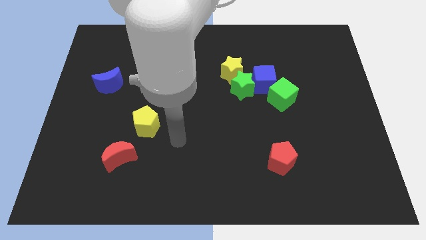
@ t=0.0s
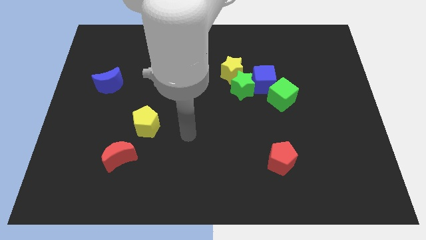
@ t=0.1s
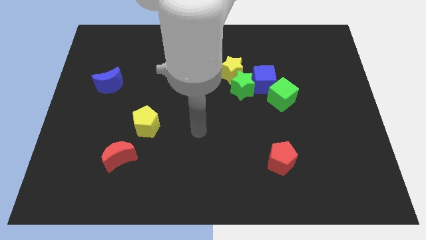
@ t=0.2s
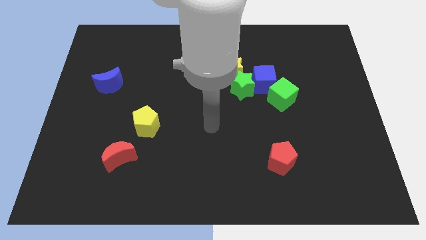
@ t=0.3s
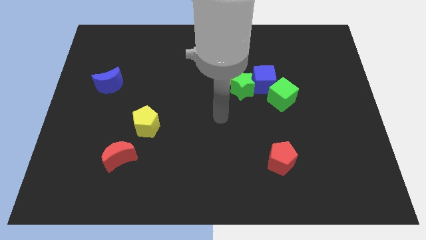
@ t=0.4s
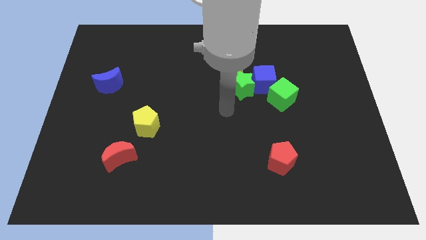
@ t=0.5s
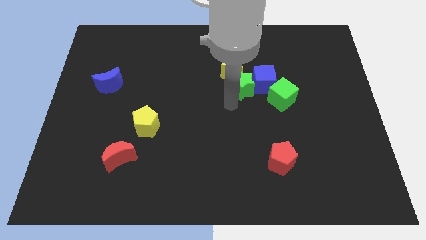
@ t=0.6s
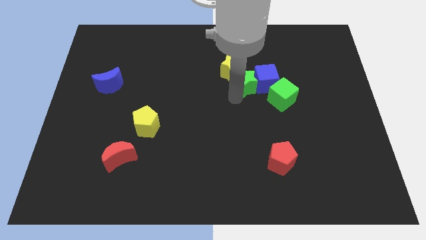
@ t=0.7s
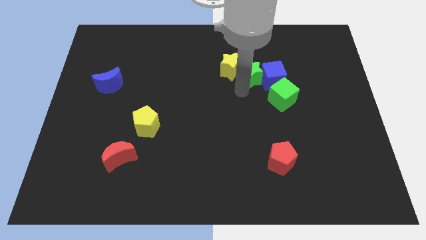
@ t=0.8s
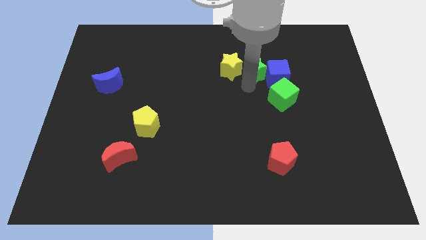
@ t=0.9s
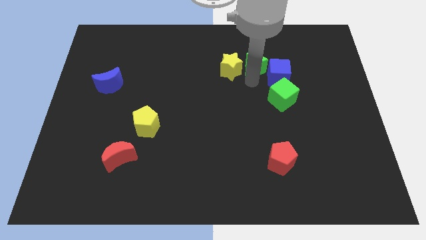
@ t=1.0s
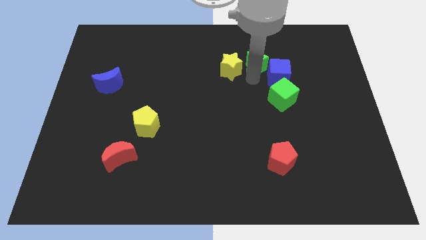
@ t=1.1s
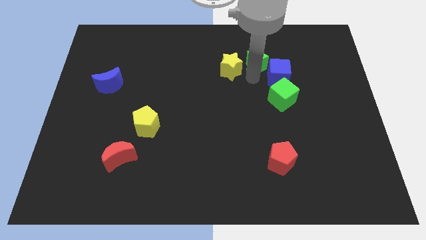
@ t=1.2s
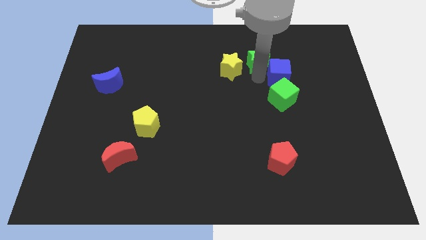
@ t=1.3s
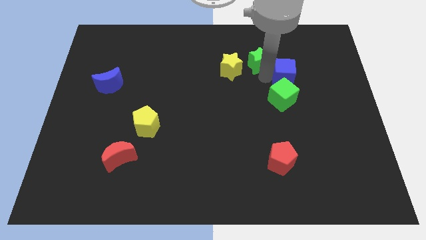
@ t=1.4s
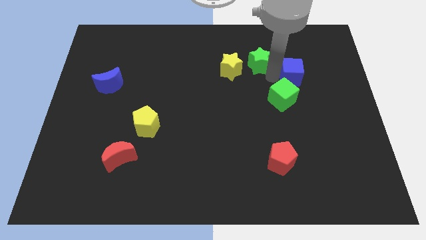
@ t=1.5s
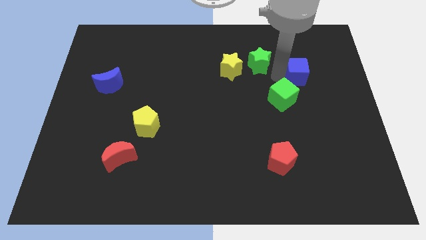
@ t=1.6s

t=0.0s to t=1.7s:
move the blue cube away from the group of blocks

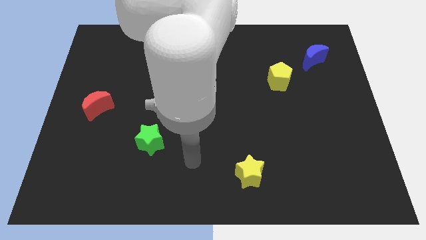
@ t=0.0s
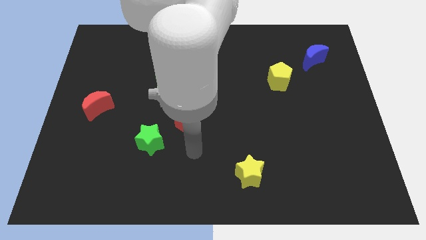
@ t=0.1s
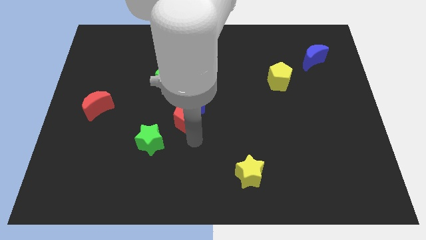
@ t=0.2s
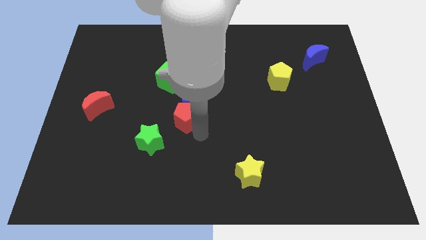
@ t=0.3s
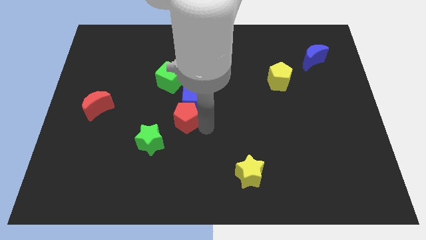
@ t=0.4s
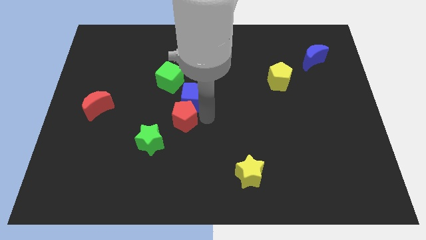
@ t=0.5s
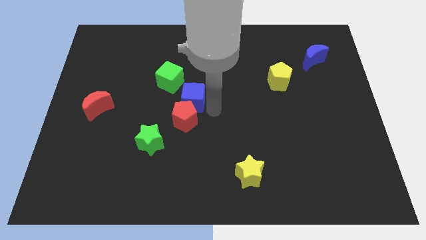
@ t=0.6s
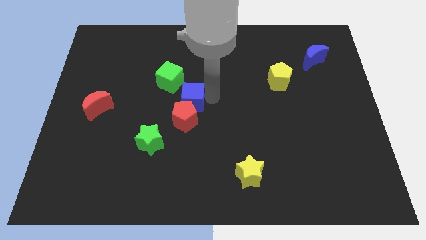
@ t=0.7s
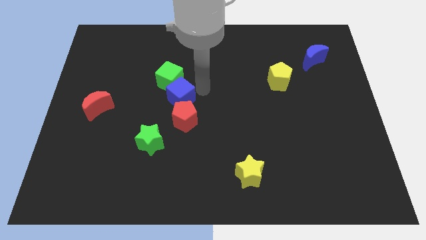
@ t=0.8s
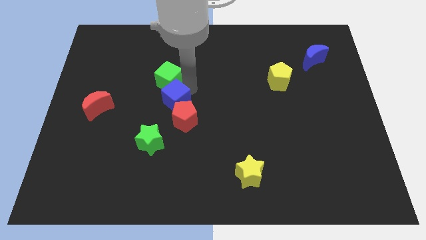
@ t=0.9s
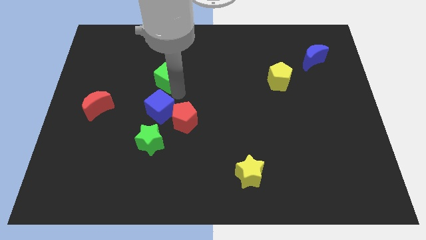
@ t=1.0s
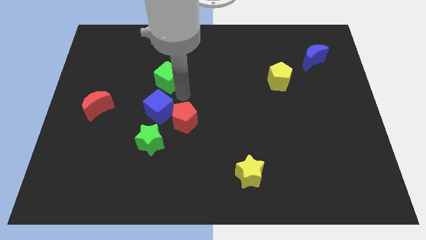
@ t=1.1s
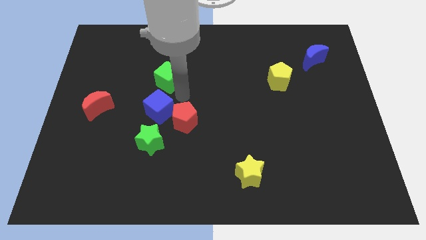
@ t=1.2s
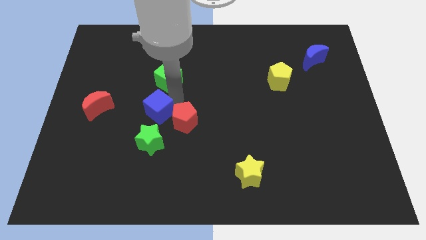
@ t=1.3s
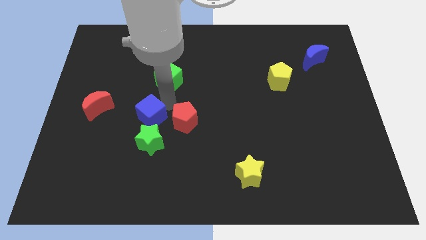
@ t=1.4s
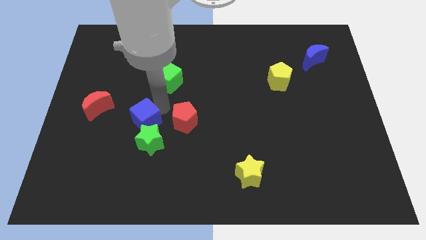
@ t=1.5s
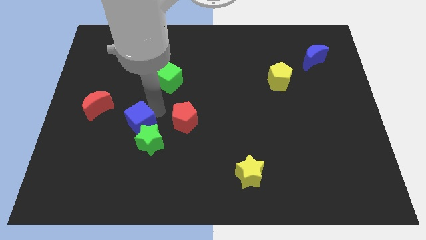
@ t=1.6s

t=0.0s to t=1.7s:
move the blue cube away from the red pentagon and green cube

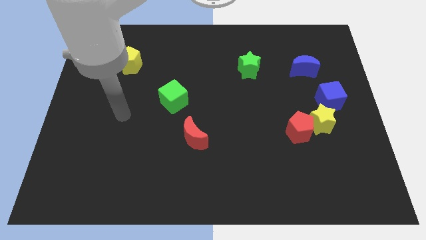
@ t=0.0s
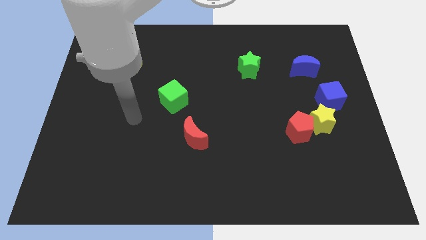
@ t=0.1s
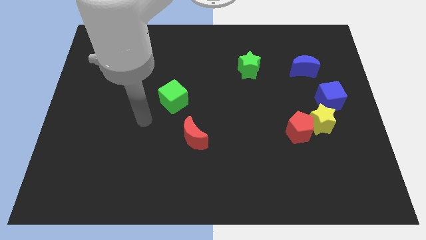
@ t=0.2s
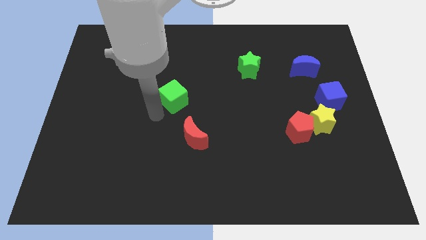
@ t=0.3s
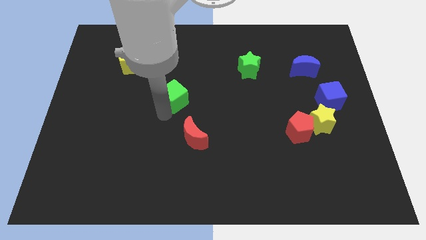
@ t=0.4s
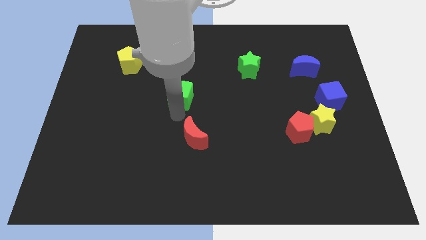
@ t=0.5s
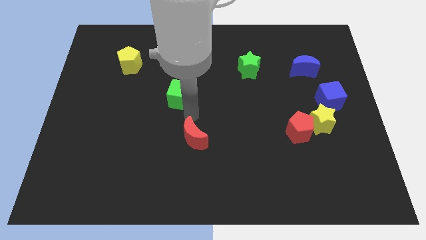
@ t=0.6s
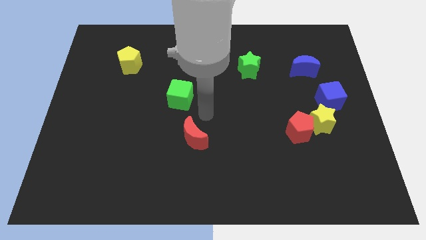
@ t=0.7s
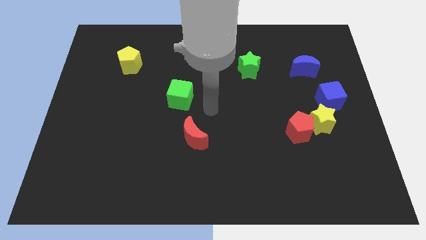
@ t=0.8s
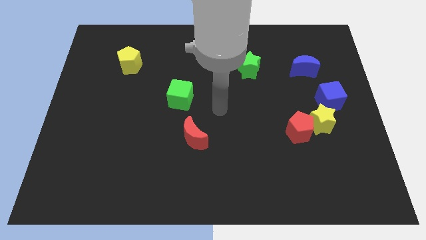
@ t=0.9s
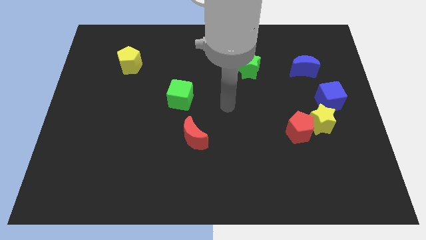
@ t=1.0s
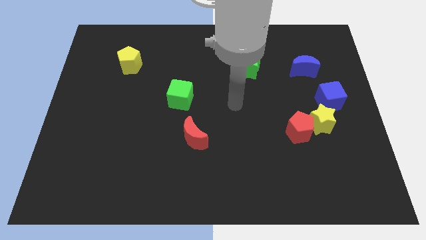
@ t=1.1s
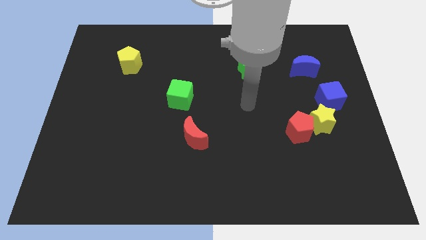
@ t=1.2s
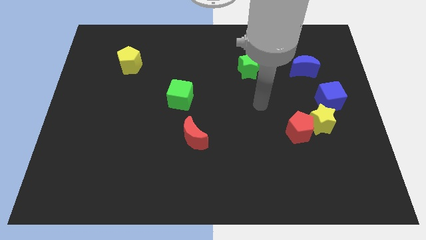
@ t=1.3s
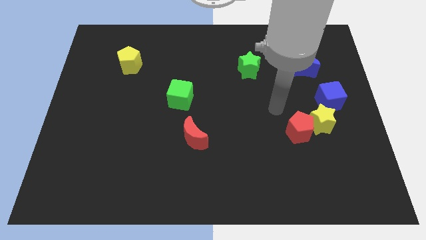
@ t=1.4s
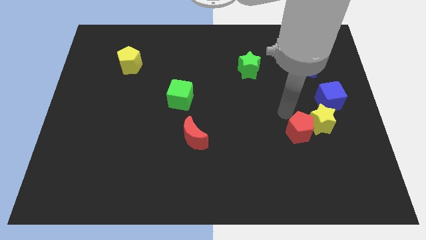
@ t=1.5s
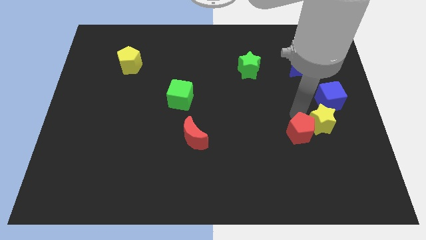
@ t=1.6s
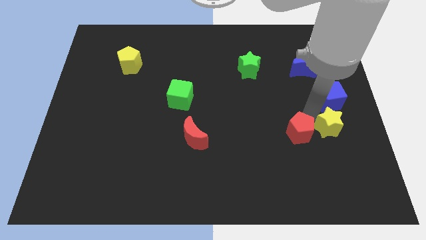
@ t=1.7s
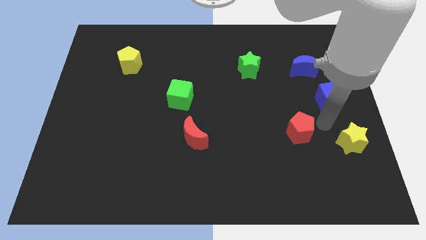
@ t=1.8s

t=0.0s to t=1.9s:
move the red pentagon away from the yellow star

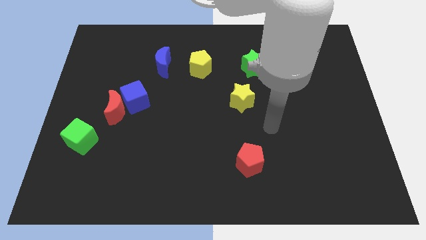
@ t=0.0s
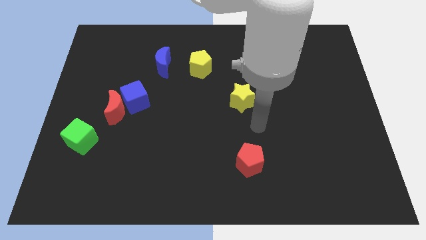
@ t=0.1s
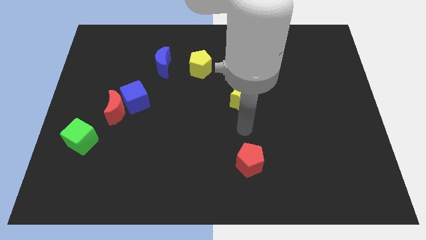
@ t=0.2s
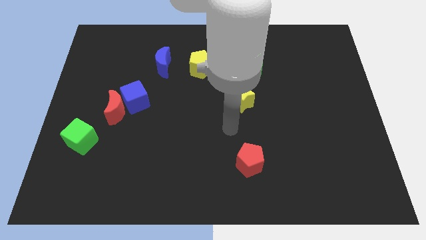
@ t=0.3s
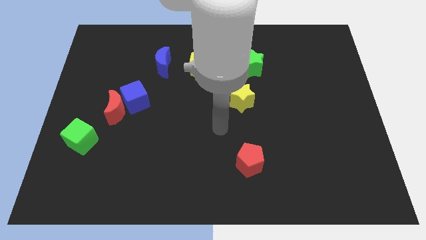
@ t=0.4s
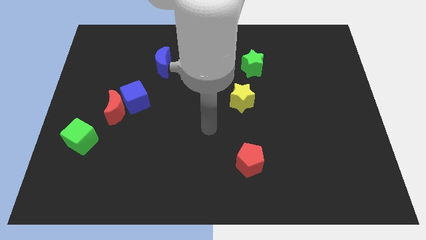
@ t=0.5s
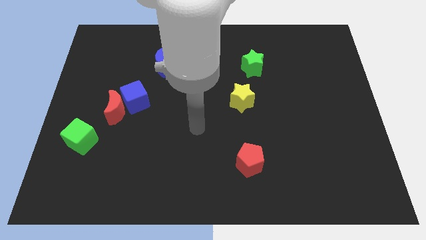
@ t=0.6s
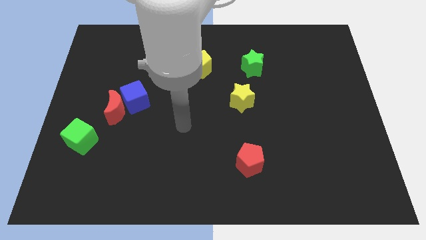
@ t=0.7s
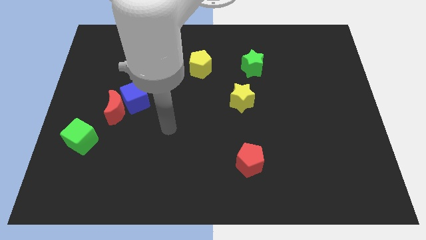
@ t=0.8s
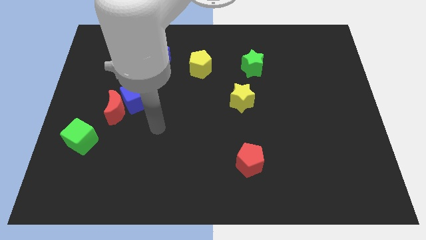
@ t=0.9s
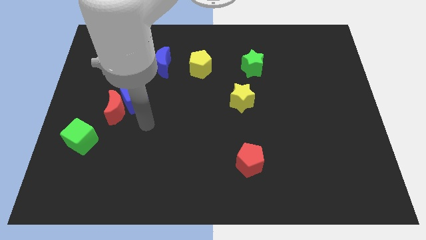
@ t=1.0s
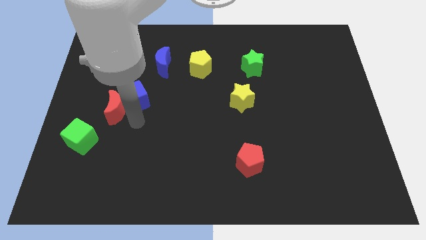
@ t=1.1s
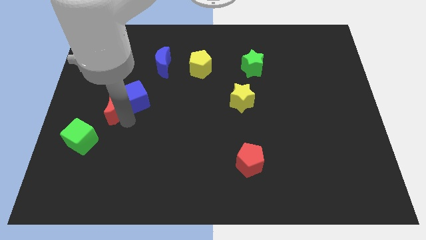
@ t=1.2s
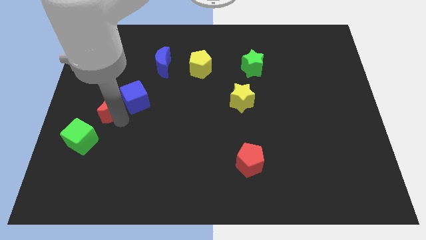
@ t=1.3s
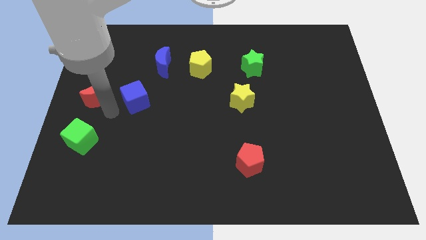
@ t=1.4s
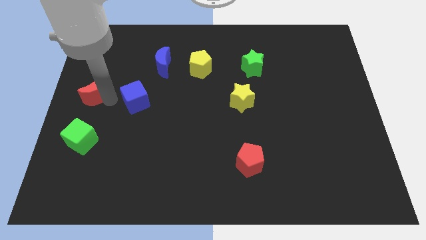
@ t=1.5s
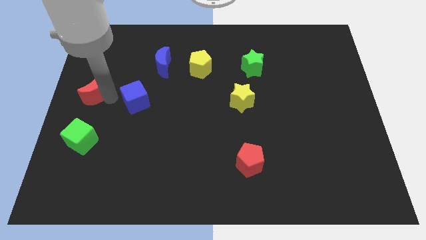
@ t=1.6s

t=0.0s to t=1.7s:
move the blue cube away from the red moon

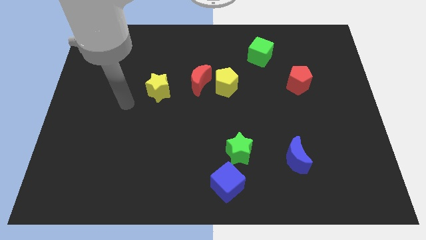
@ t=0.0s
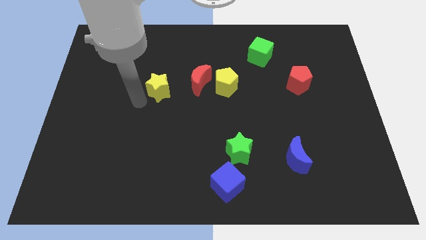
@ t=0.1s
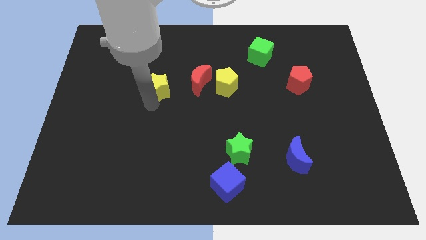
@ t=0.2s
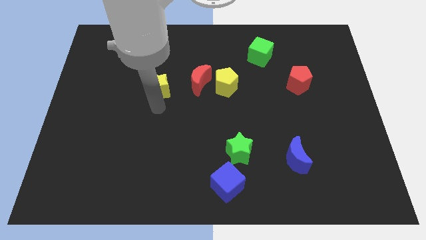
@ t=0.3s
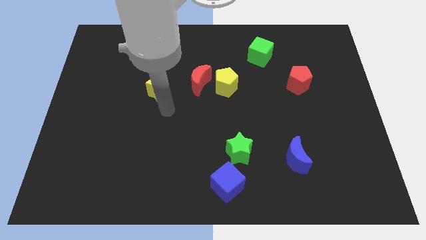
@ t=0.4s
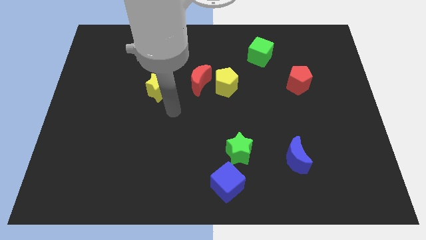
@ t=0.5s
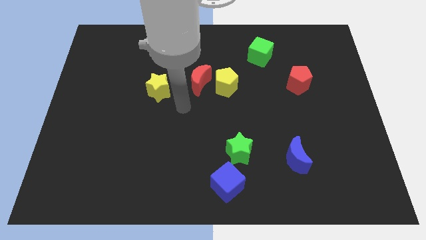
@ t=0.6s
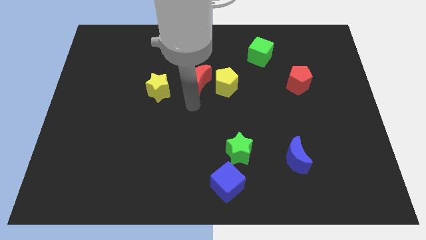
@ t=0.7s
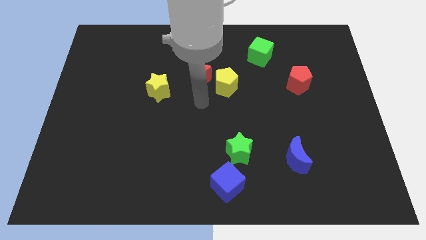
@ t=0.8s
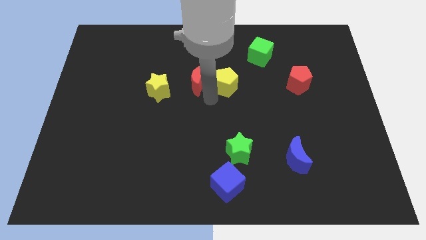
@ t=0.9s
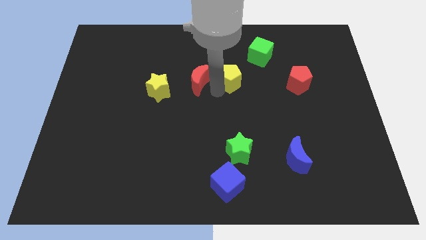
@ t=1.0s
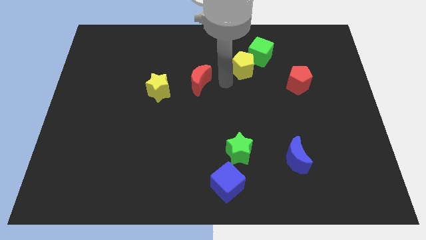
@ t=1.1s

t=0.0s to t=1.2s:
pull the red moon apart from the yellow pentagon

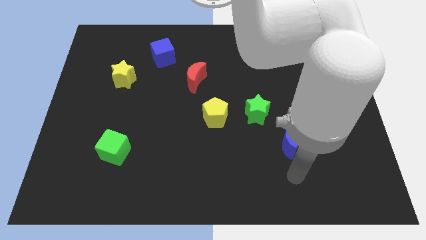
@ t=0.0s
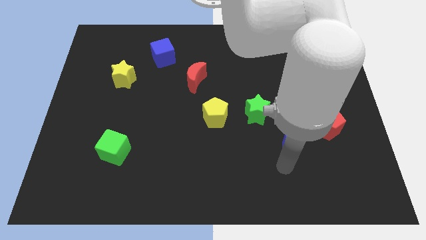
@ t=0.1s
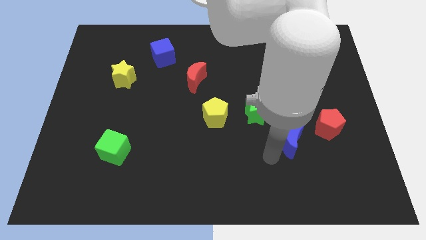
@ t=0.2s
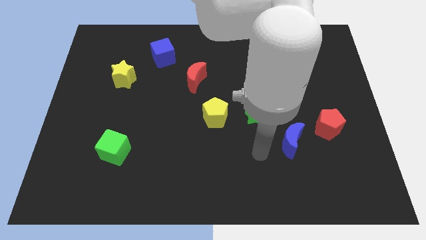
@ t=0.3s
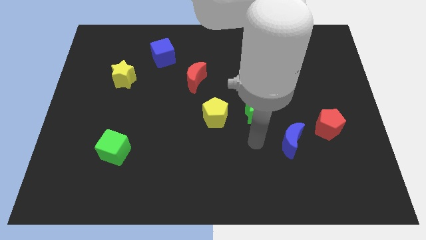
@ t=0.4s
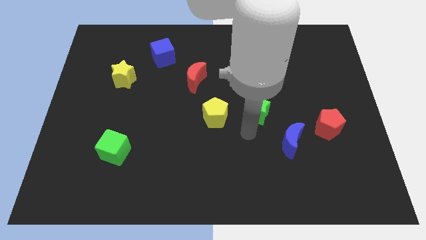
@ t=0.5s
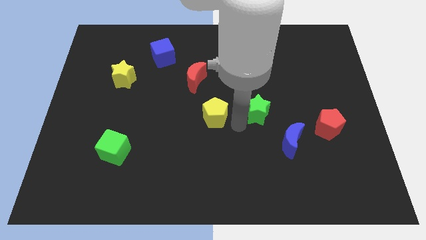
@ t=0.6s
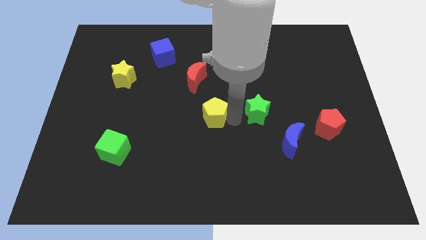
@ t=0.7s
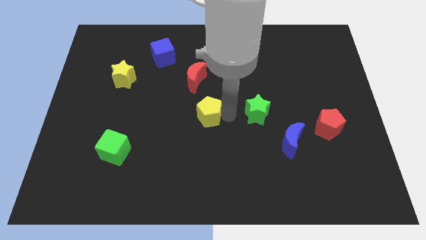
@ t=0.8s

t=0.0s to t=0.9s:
separate the green star from the yellow pentagon

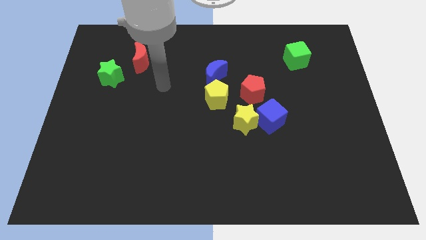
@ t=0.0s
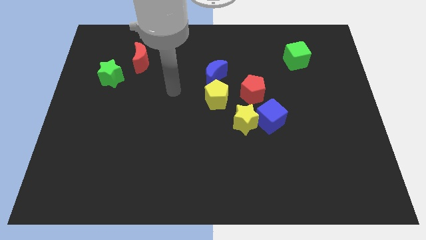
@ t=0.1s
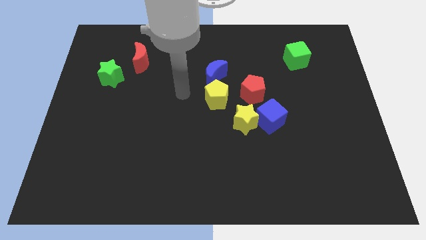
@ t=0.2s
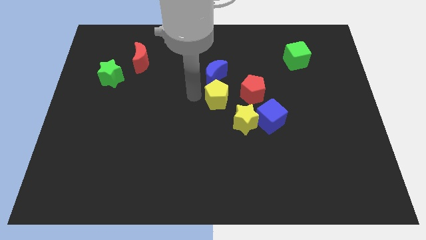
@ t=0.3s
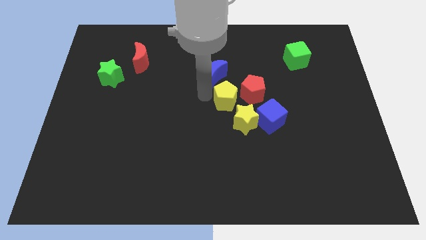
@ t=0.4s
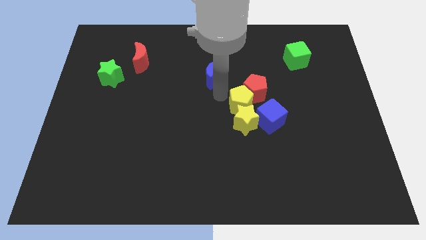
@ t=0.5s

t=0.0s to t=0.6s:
pull the blue moon apart from the yellow pentagon
